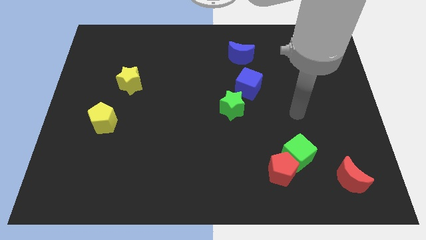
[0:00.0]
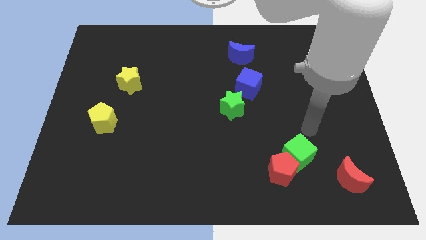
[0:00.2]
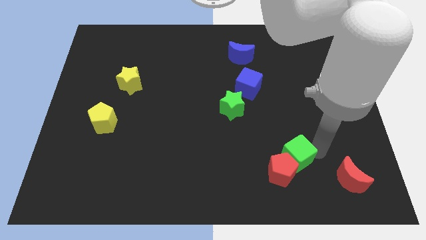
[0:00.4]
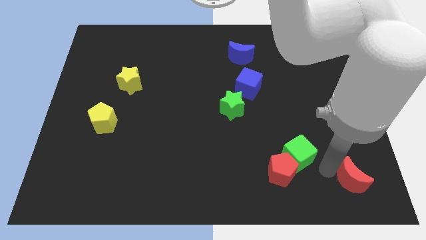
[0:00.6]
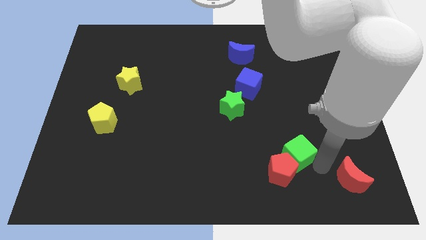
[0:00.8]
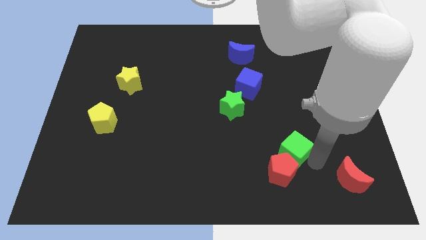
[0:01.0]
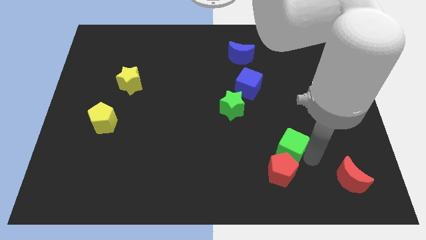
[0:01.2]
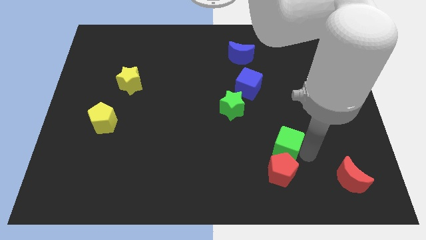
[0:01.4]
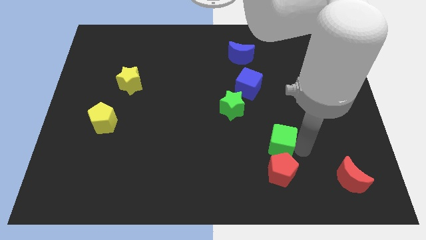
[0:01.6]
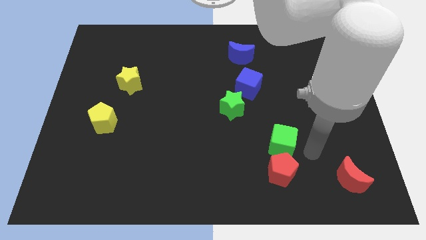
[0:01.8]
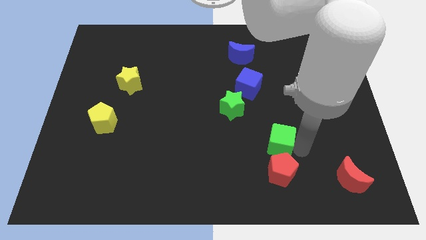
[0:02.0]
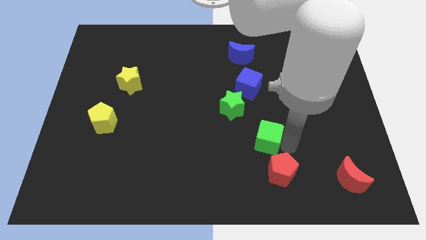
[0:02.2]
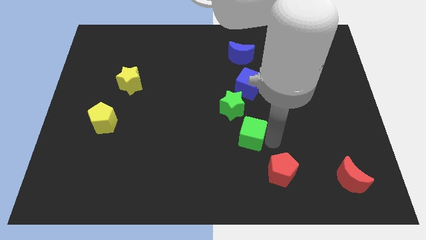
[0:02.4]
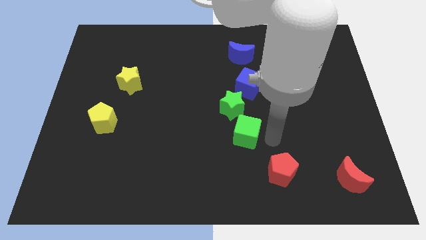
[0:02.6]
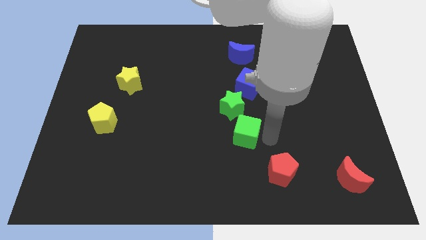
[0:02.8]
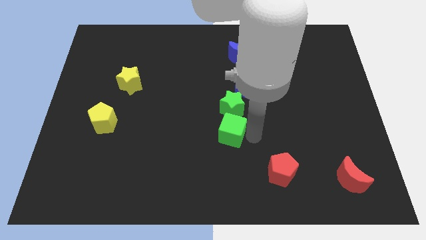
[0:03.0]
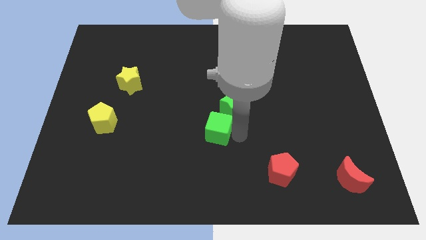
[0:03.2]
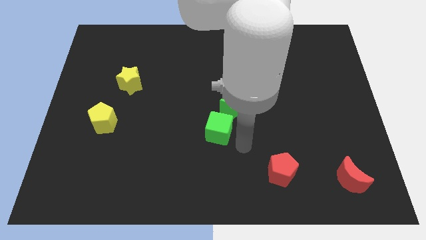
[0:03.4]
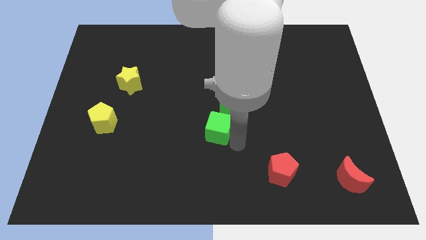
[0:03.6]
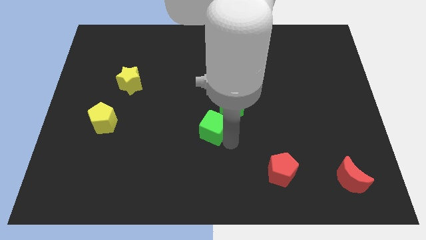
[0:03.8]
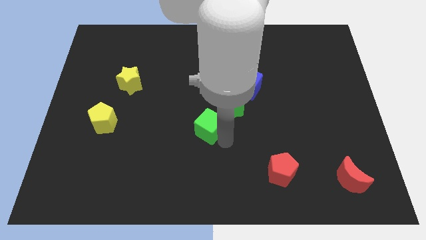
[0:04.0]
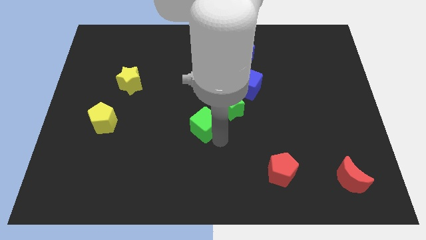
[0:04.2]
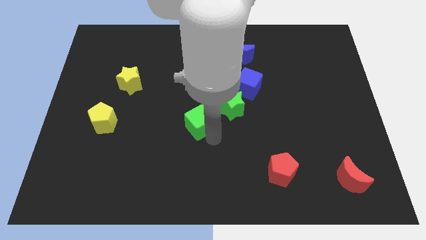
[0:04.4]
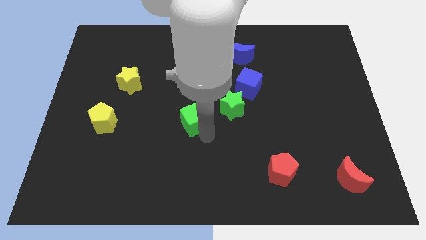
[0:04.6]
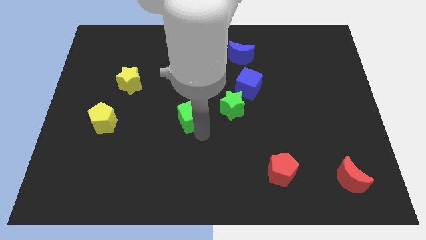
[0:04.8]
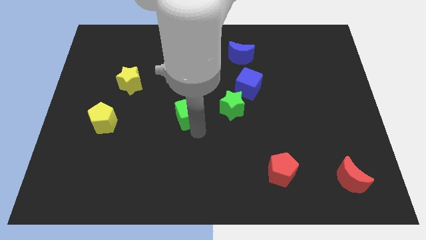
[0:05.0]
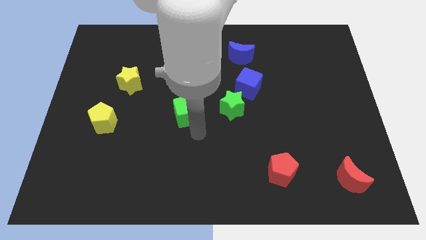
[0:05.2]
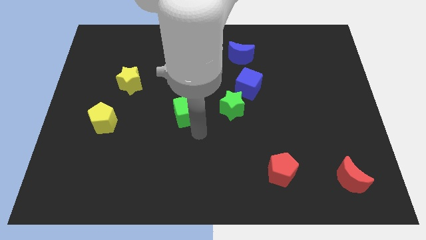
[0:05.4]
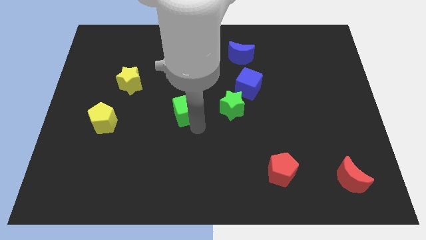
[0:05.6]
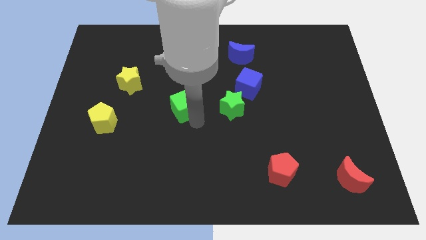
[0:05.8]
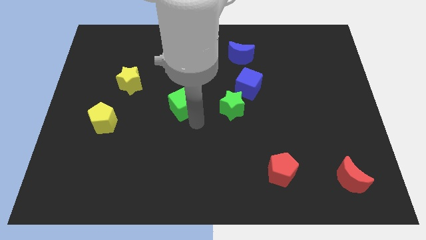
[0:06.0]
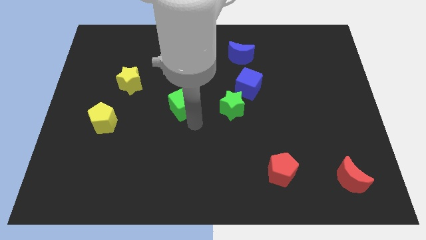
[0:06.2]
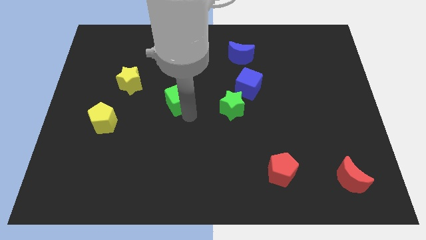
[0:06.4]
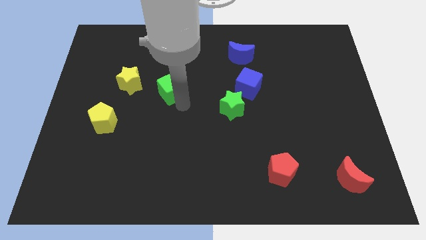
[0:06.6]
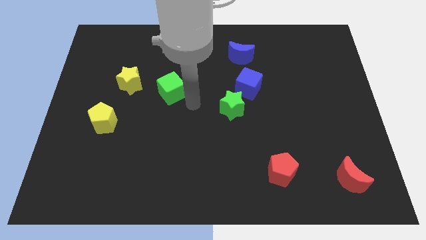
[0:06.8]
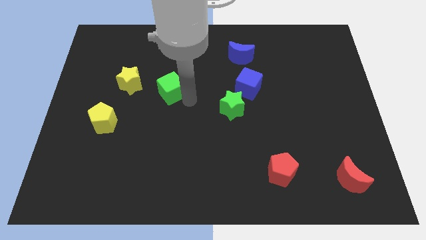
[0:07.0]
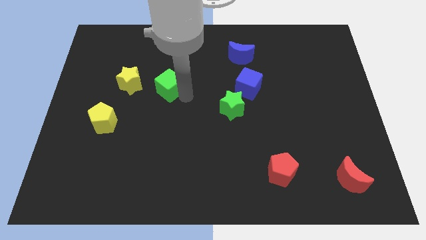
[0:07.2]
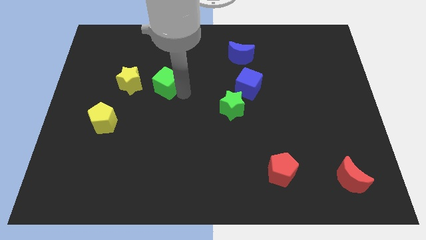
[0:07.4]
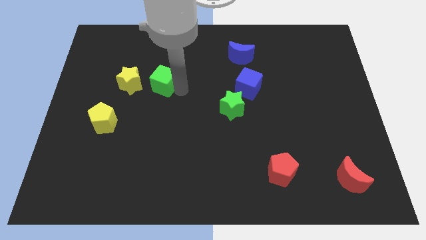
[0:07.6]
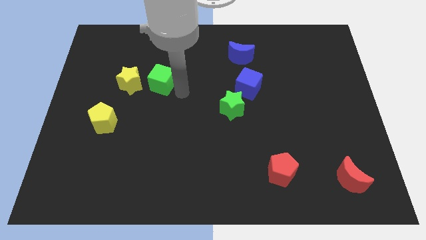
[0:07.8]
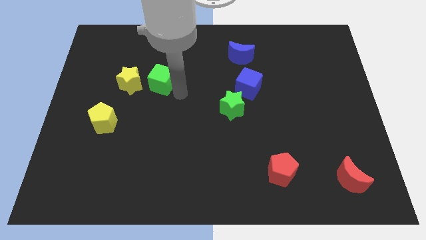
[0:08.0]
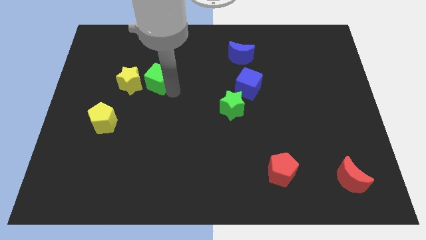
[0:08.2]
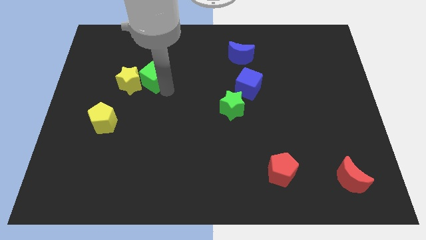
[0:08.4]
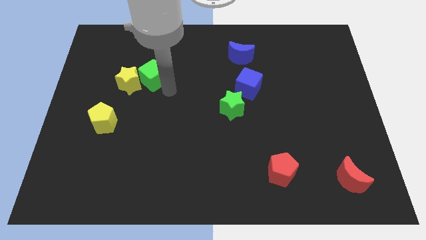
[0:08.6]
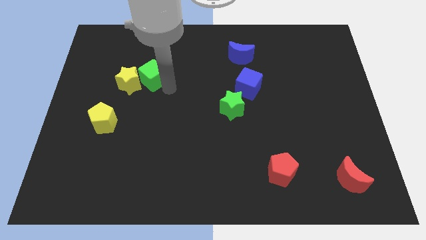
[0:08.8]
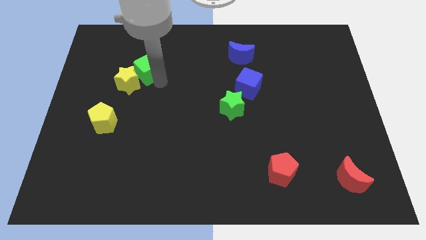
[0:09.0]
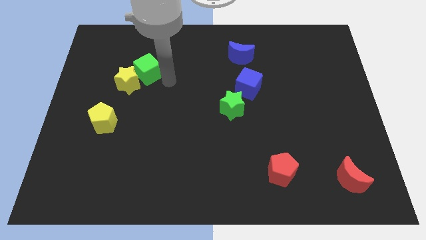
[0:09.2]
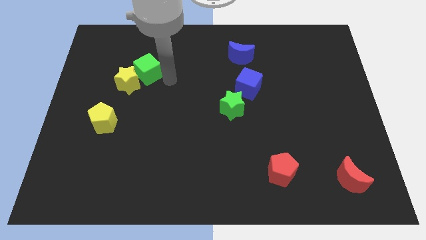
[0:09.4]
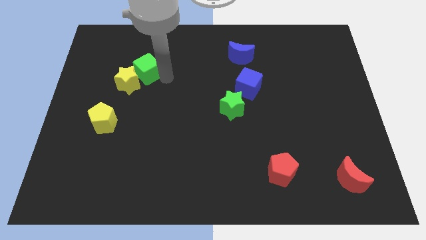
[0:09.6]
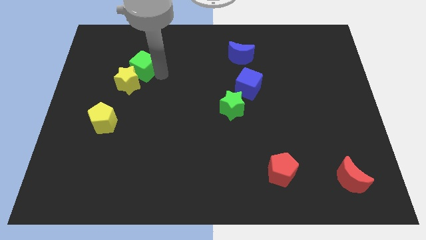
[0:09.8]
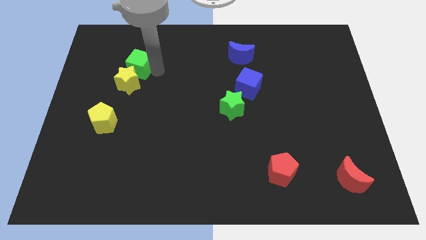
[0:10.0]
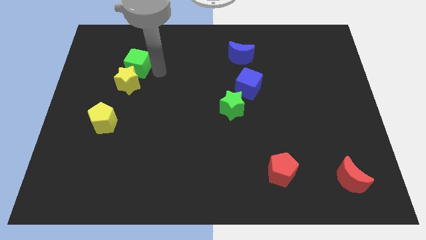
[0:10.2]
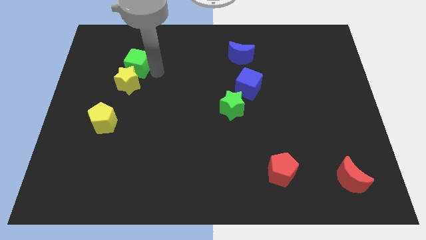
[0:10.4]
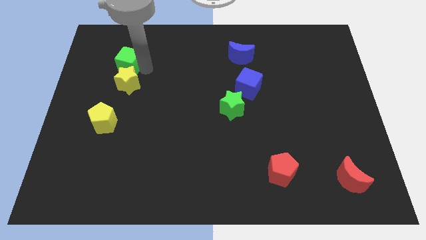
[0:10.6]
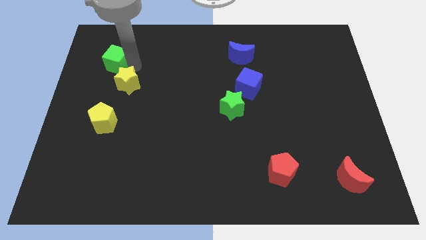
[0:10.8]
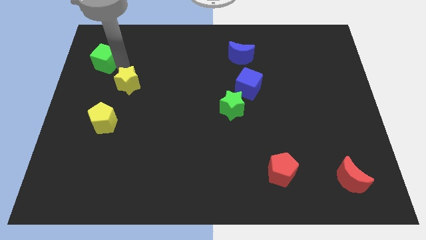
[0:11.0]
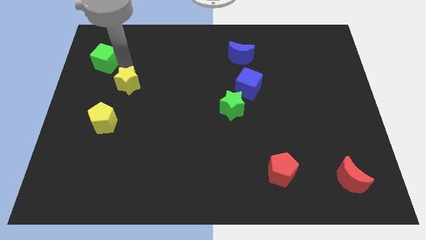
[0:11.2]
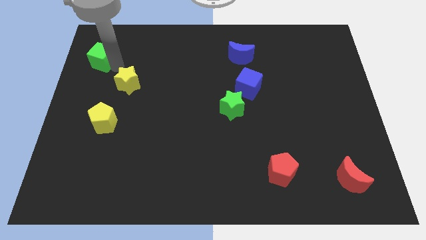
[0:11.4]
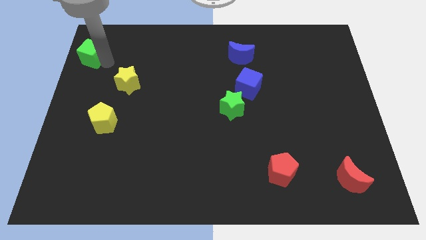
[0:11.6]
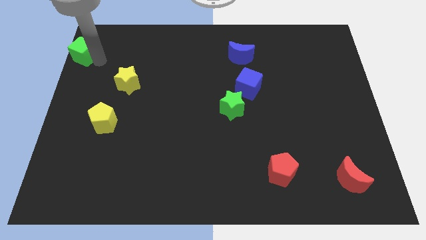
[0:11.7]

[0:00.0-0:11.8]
put the green cube to the top left of the board

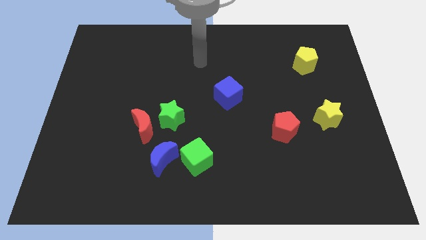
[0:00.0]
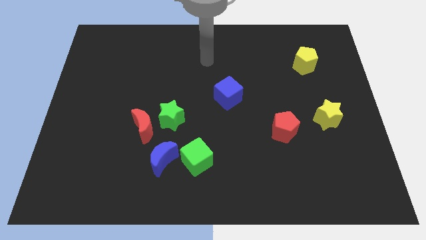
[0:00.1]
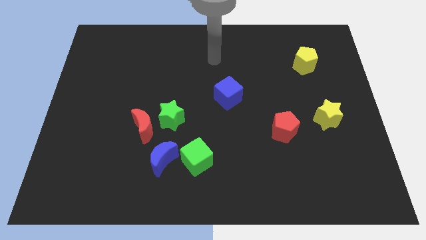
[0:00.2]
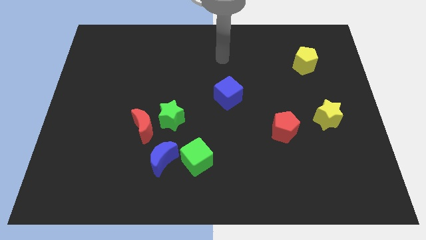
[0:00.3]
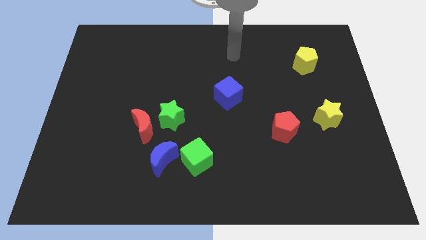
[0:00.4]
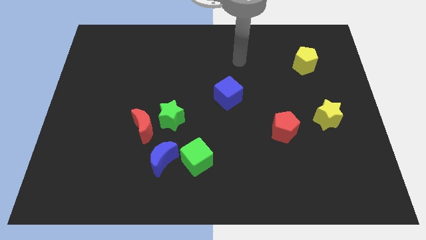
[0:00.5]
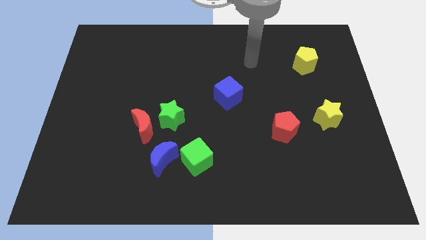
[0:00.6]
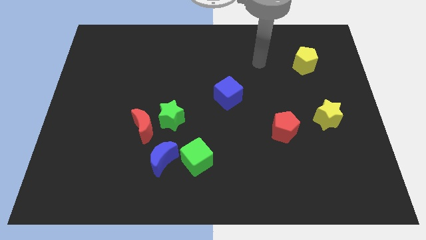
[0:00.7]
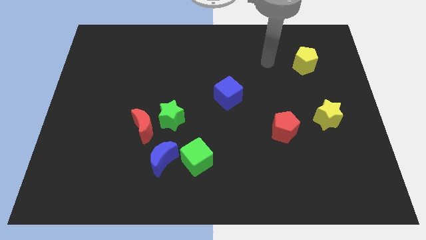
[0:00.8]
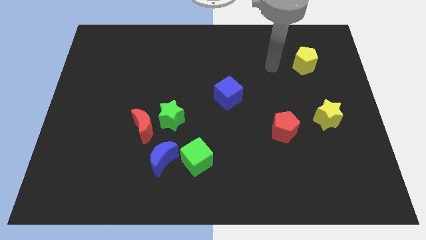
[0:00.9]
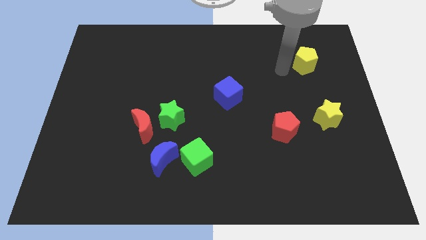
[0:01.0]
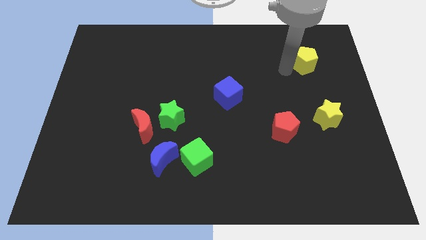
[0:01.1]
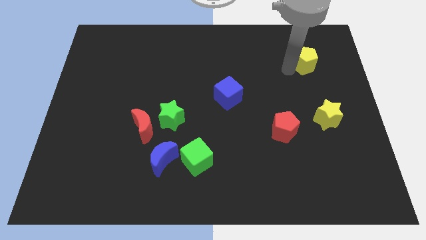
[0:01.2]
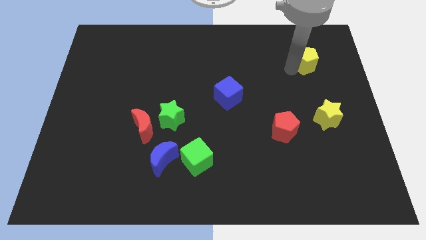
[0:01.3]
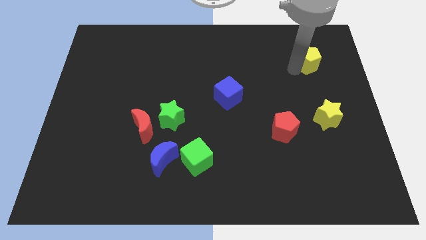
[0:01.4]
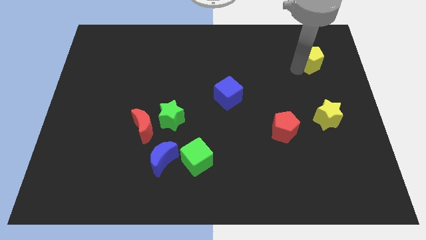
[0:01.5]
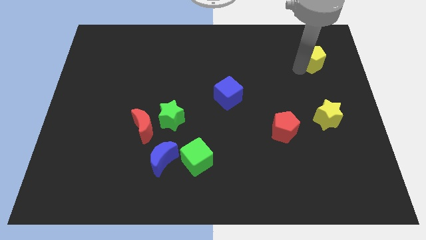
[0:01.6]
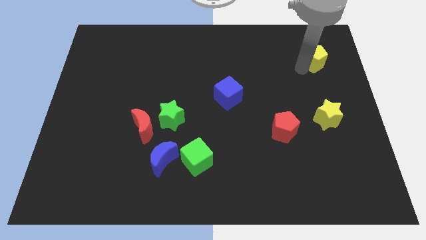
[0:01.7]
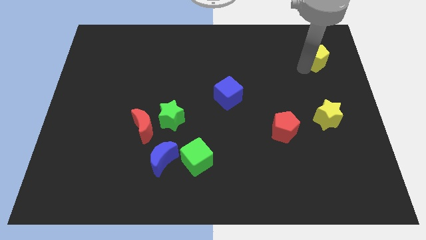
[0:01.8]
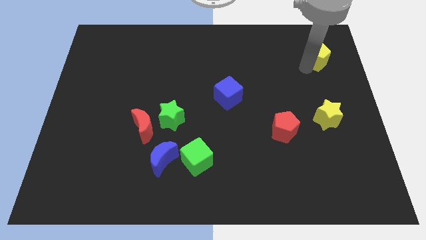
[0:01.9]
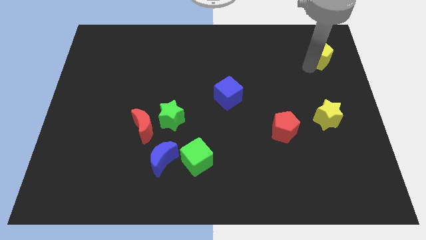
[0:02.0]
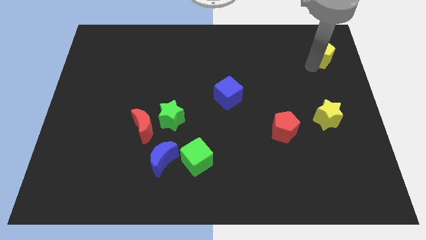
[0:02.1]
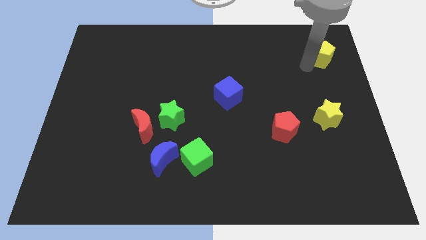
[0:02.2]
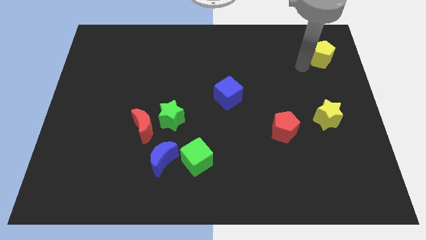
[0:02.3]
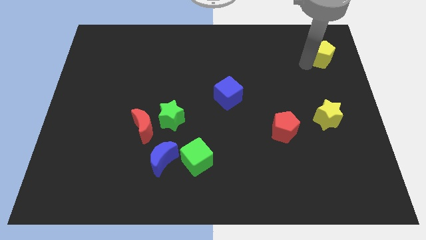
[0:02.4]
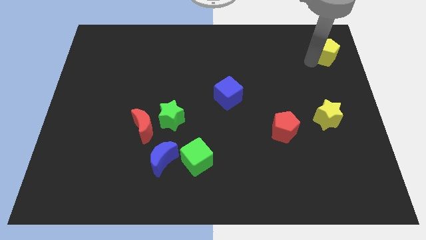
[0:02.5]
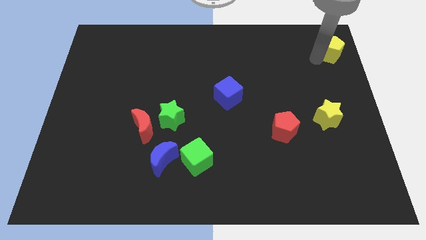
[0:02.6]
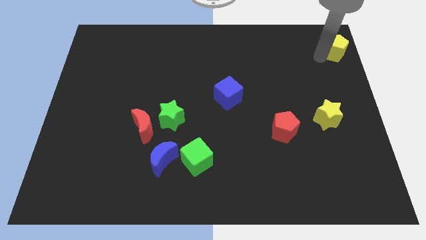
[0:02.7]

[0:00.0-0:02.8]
move the yellow pentagon to the upper right corner
